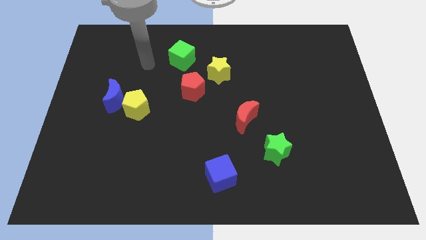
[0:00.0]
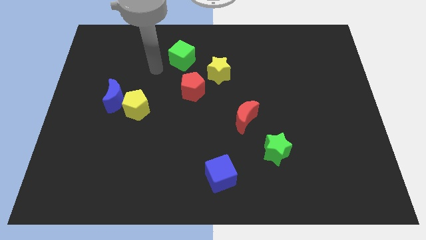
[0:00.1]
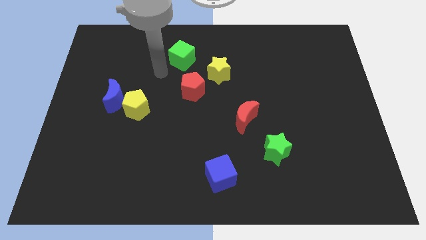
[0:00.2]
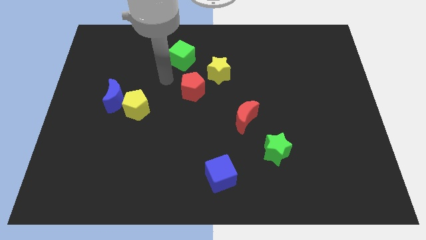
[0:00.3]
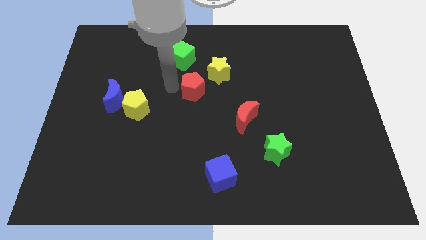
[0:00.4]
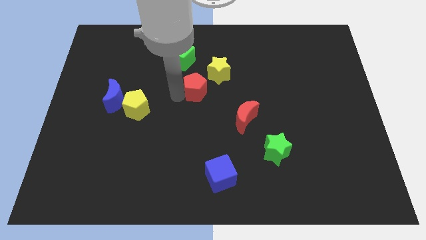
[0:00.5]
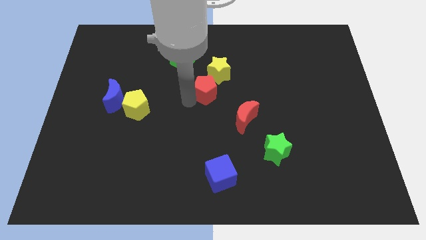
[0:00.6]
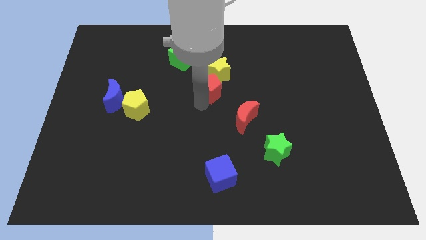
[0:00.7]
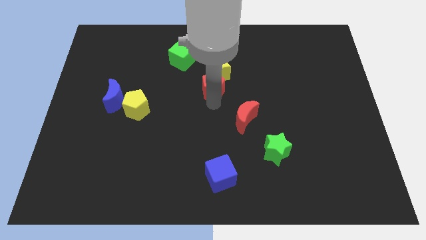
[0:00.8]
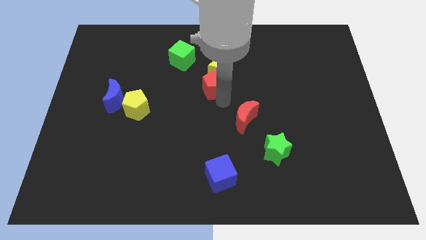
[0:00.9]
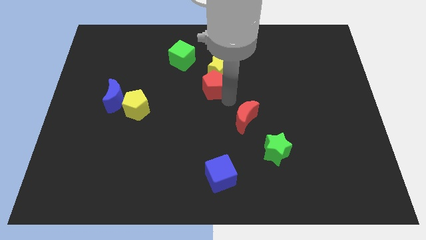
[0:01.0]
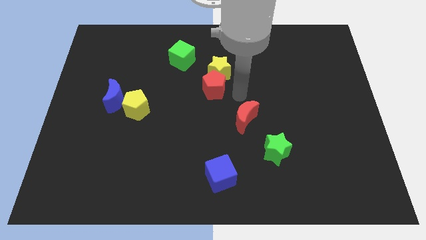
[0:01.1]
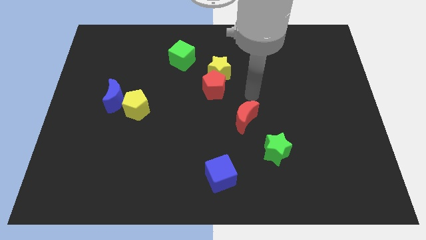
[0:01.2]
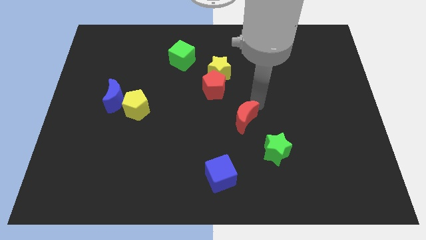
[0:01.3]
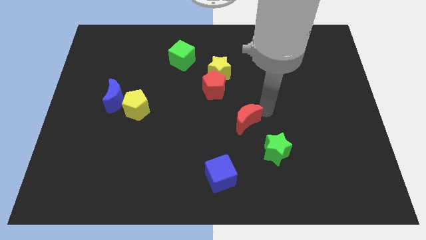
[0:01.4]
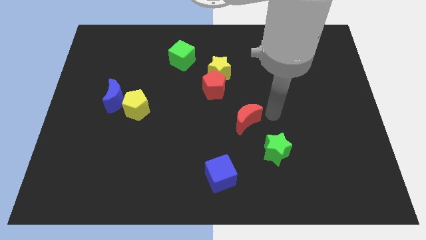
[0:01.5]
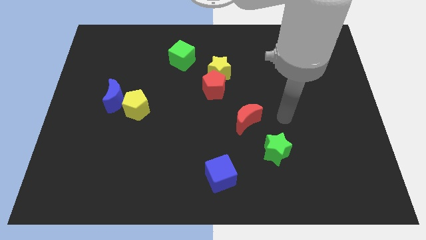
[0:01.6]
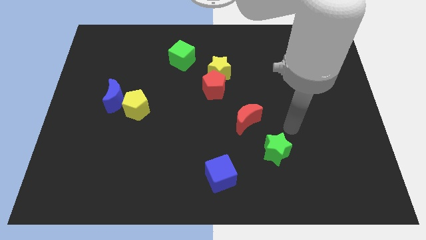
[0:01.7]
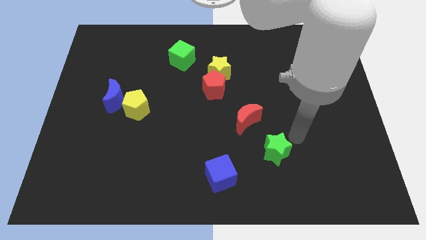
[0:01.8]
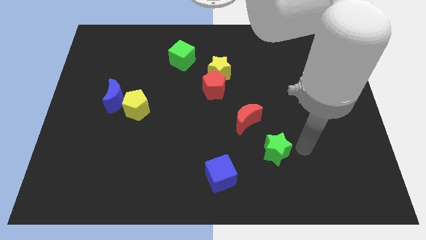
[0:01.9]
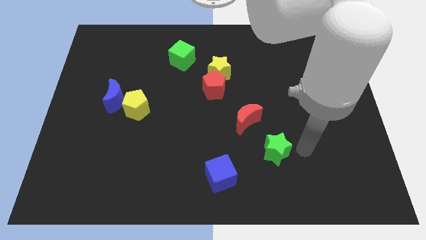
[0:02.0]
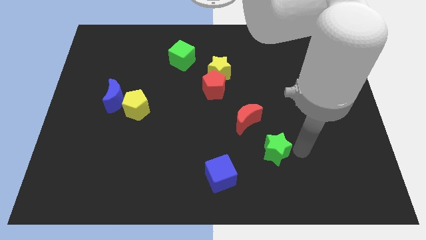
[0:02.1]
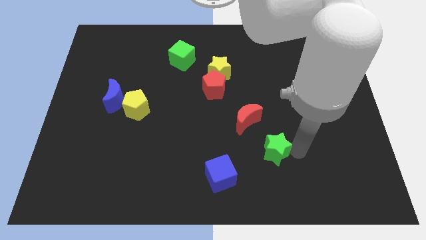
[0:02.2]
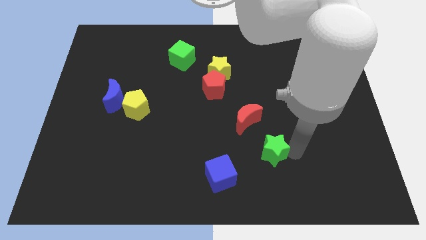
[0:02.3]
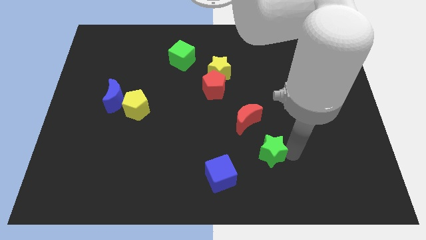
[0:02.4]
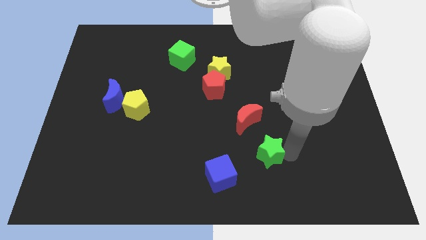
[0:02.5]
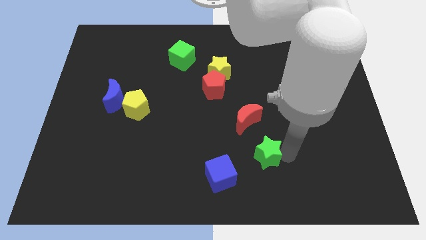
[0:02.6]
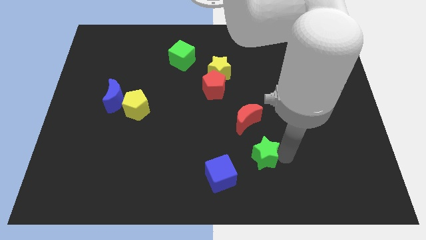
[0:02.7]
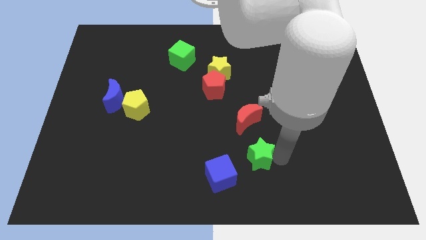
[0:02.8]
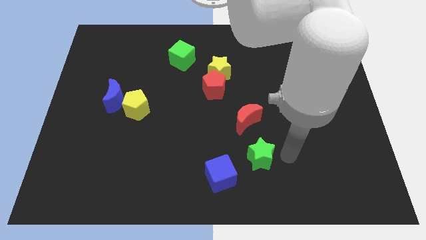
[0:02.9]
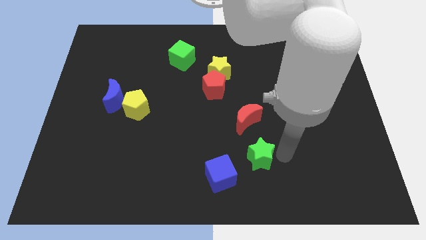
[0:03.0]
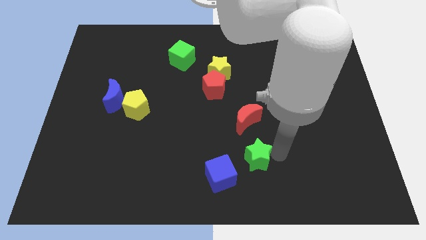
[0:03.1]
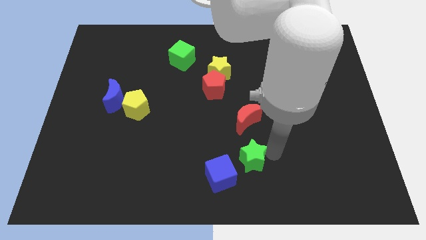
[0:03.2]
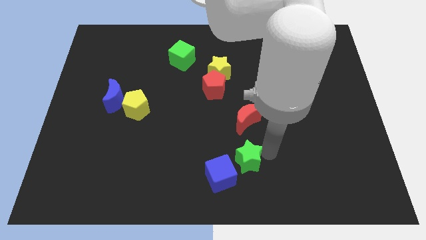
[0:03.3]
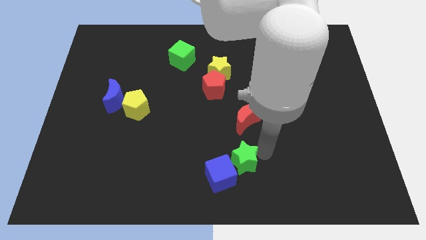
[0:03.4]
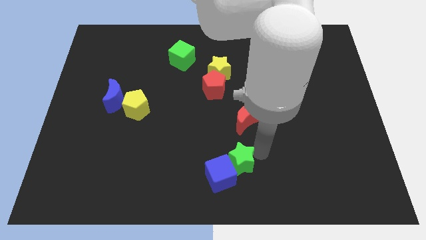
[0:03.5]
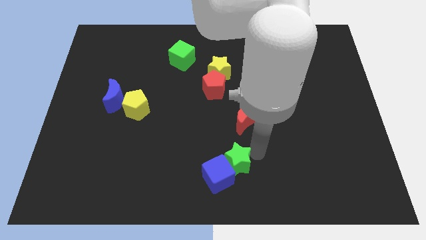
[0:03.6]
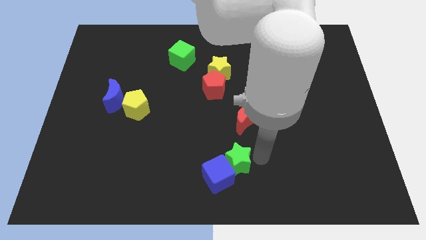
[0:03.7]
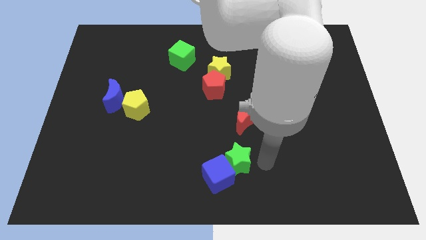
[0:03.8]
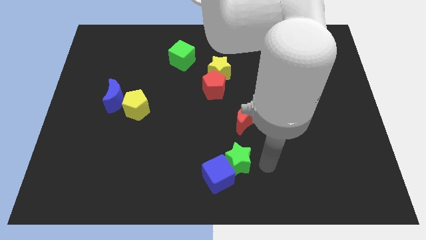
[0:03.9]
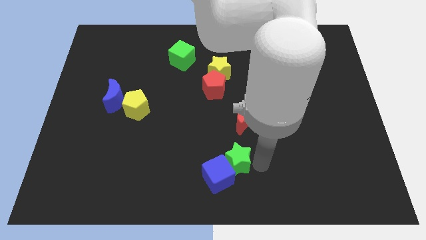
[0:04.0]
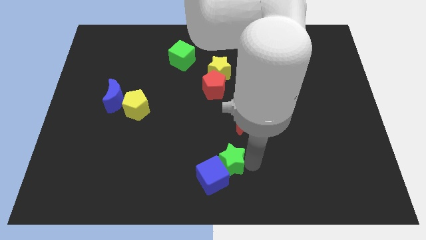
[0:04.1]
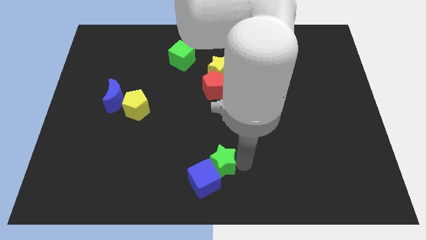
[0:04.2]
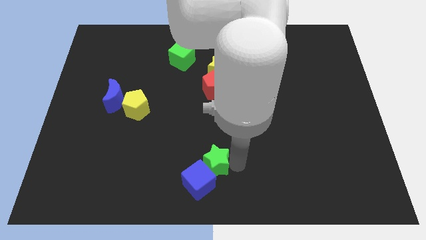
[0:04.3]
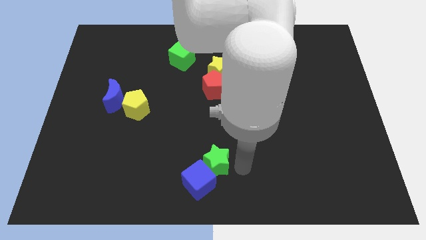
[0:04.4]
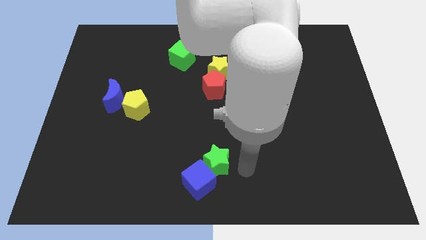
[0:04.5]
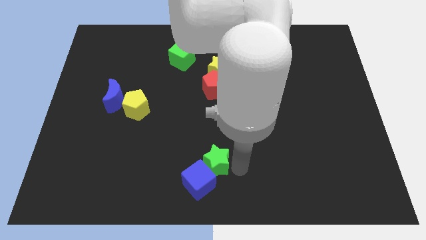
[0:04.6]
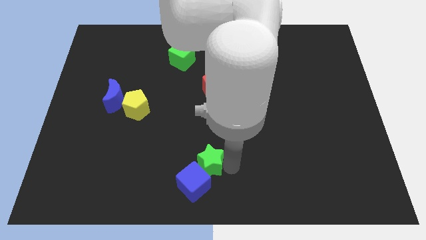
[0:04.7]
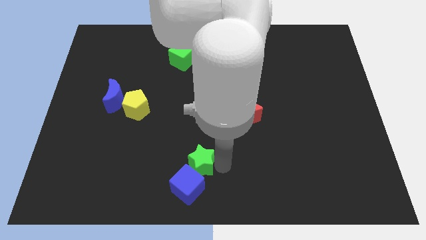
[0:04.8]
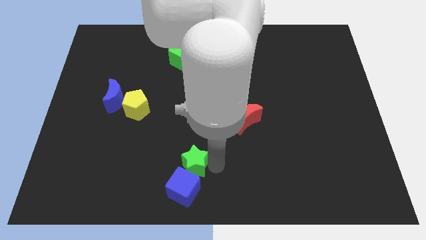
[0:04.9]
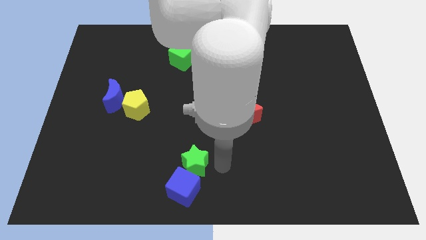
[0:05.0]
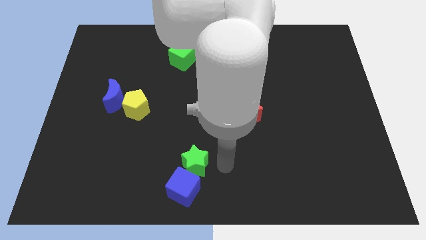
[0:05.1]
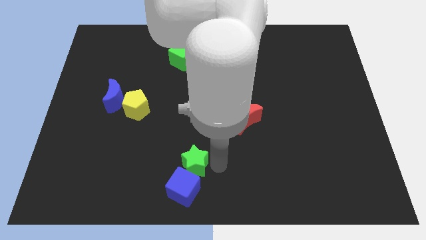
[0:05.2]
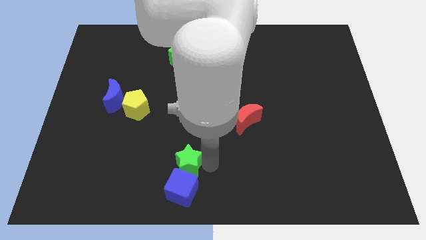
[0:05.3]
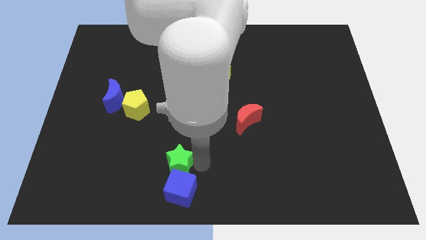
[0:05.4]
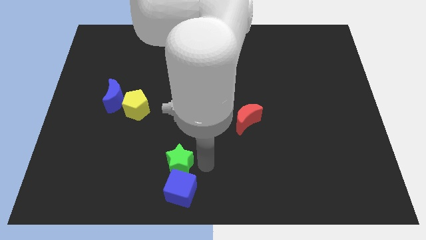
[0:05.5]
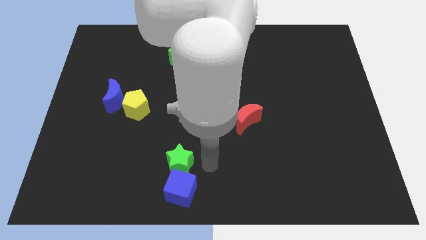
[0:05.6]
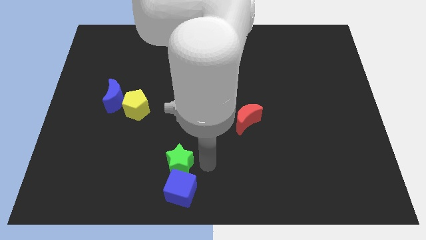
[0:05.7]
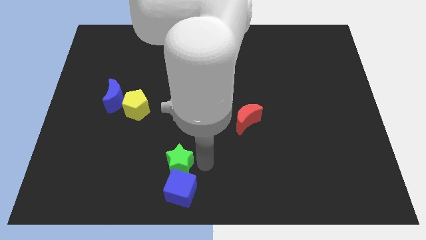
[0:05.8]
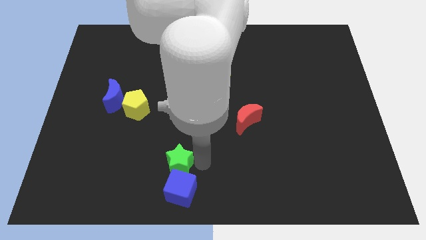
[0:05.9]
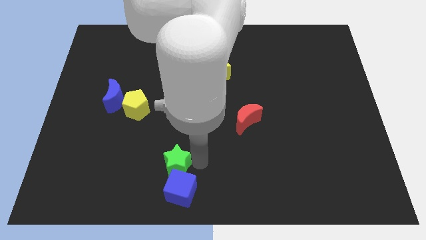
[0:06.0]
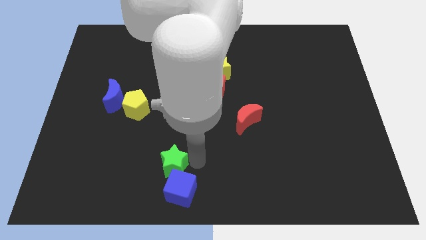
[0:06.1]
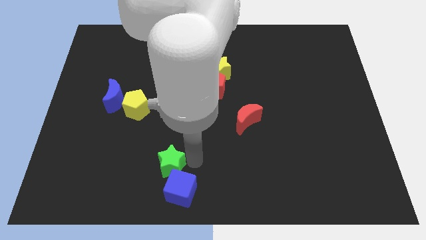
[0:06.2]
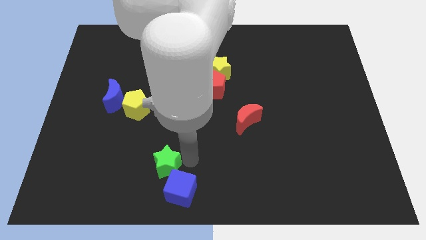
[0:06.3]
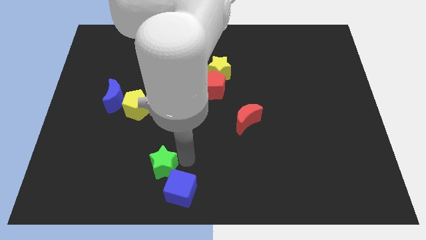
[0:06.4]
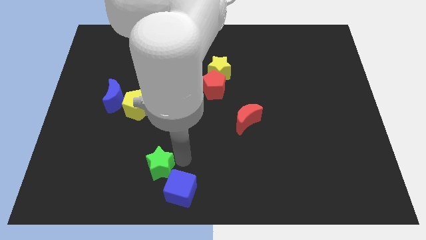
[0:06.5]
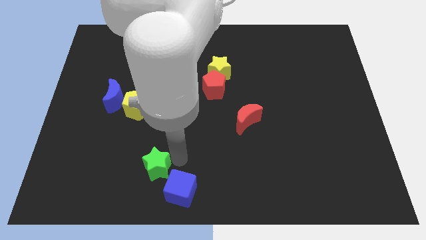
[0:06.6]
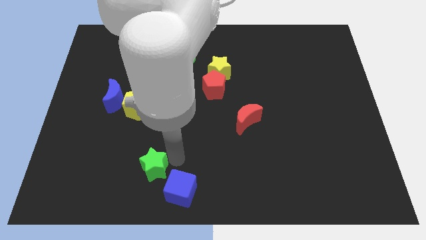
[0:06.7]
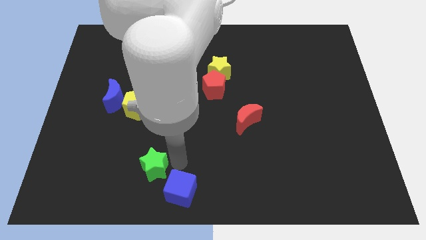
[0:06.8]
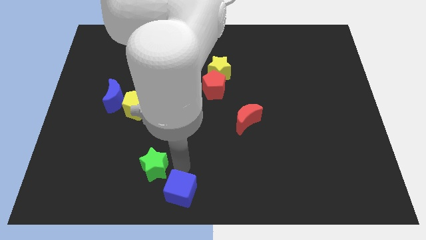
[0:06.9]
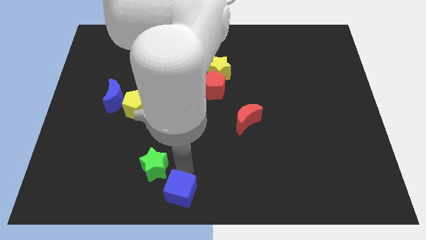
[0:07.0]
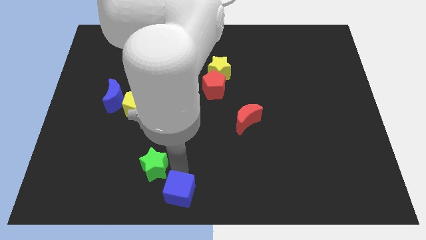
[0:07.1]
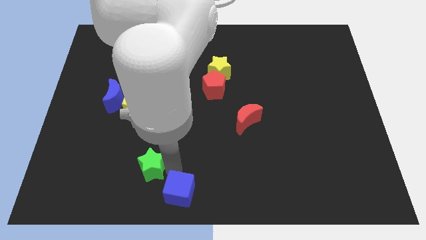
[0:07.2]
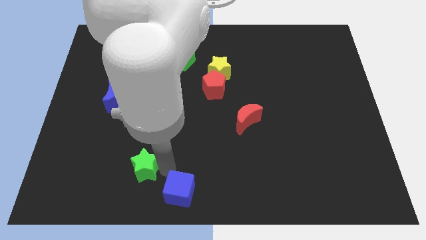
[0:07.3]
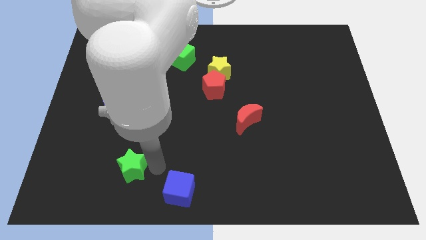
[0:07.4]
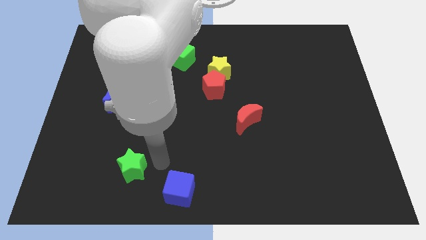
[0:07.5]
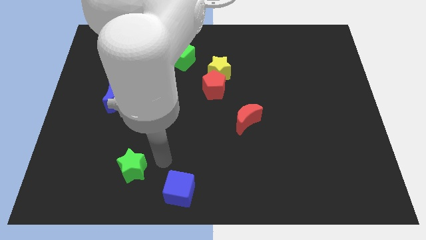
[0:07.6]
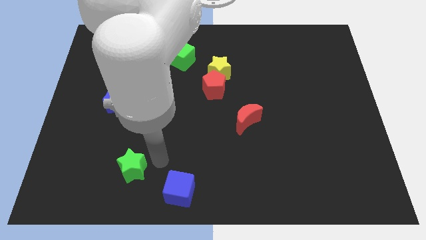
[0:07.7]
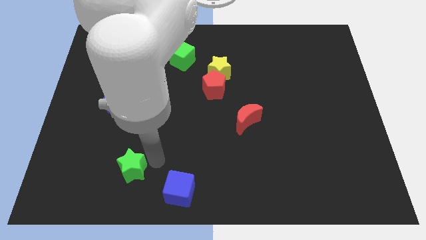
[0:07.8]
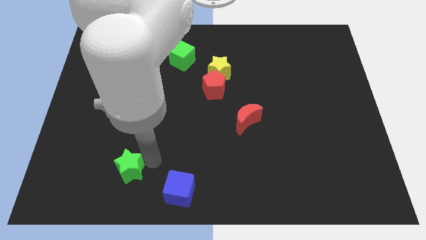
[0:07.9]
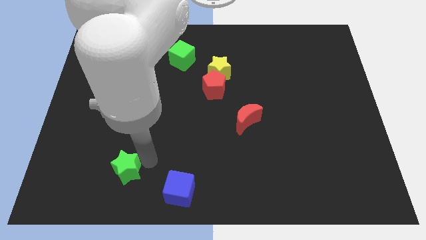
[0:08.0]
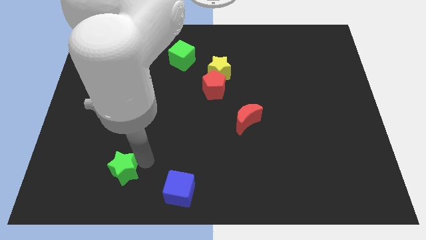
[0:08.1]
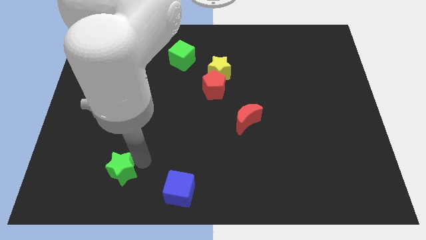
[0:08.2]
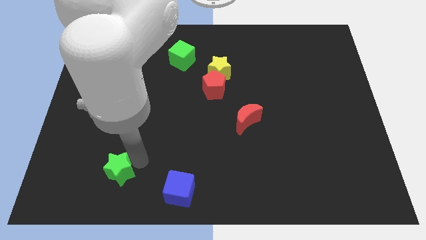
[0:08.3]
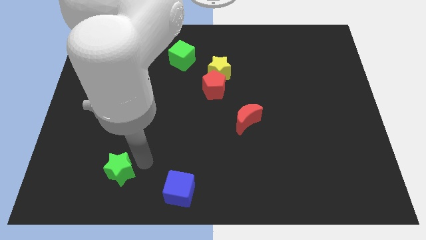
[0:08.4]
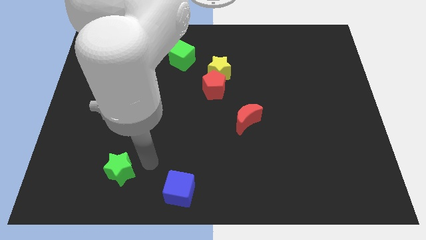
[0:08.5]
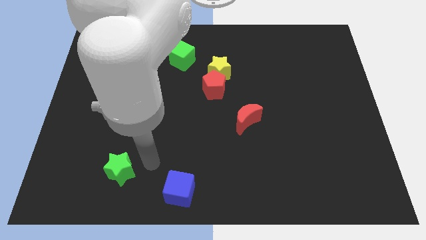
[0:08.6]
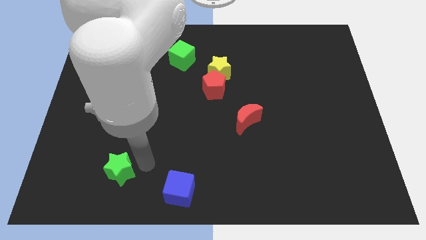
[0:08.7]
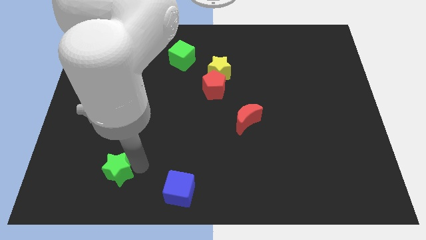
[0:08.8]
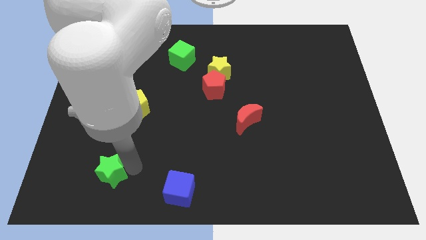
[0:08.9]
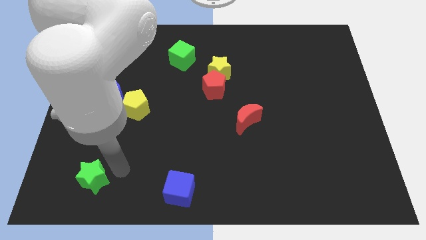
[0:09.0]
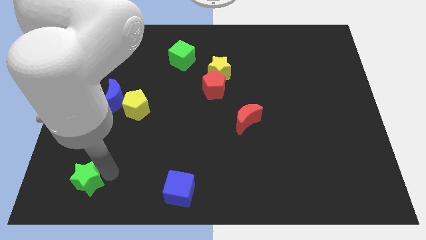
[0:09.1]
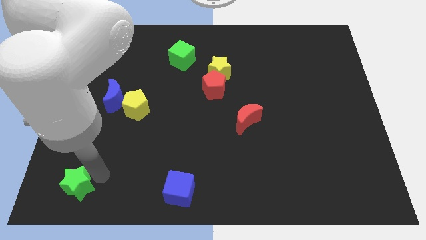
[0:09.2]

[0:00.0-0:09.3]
slide the green star to the lower left corner
